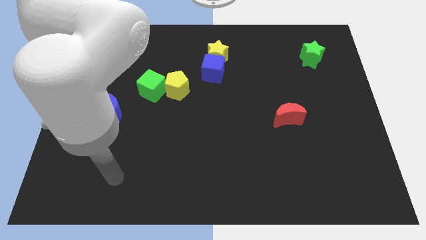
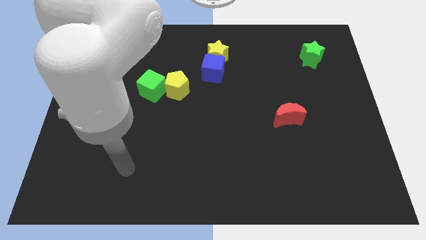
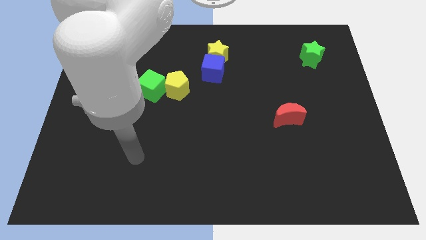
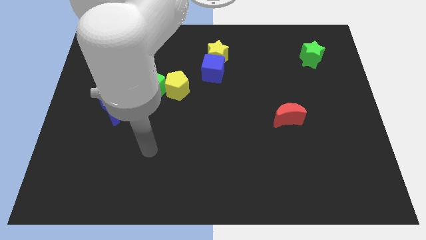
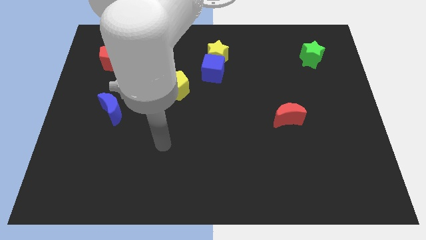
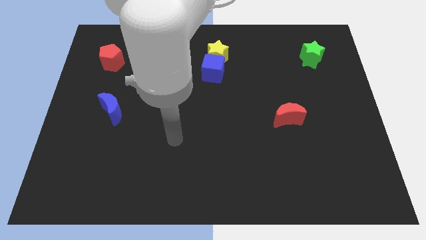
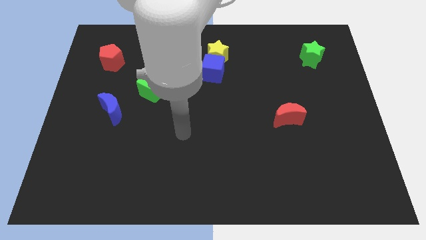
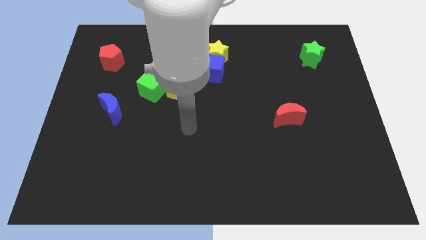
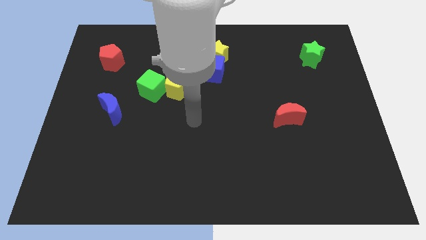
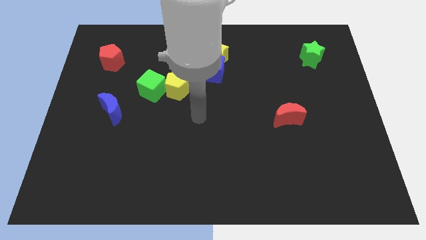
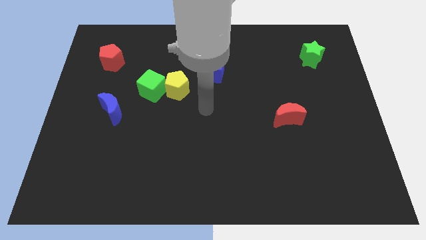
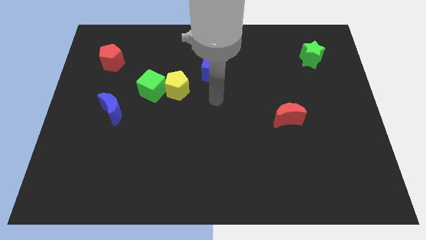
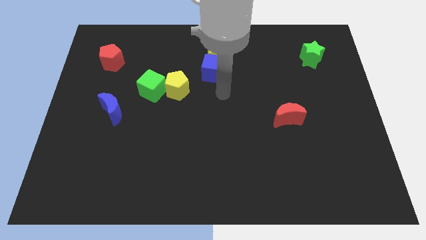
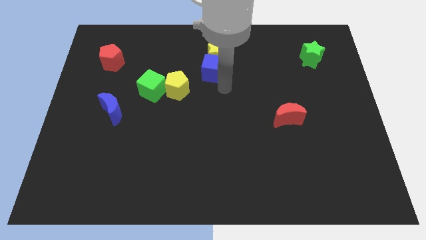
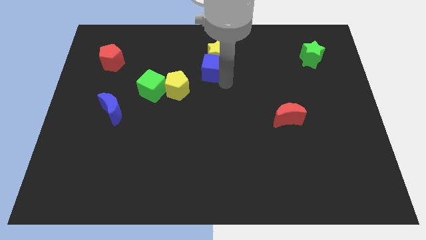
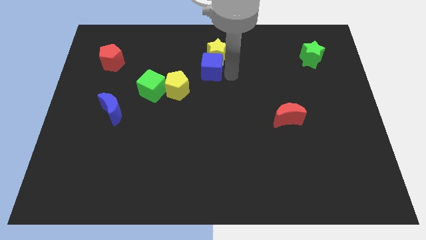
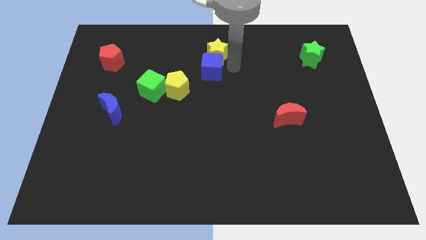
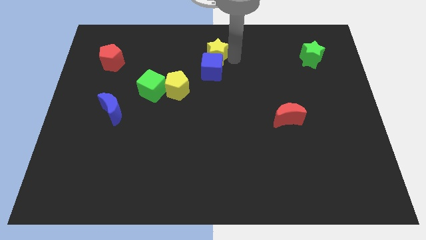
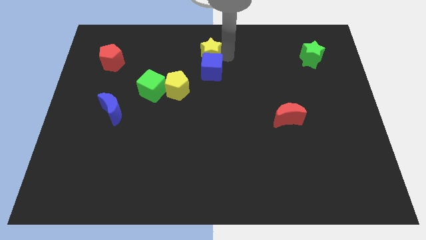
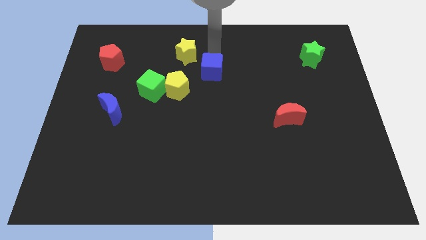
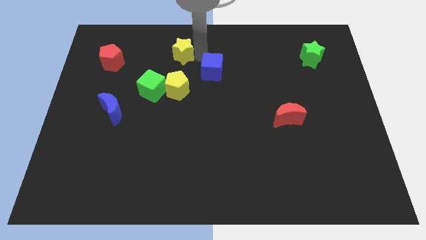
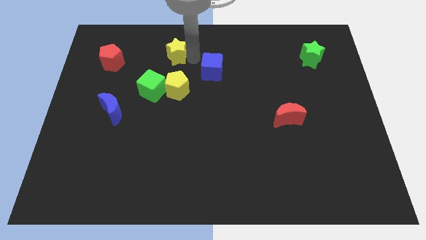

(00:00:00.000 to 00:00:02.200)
pull the blue cube apart from the yellow star

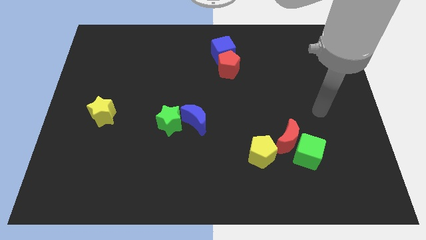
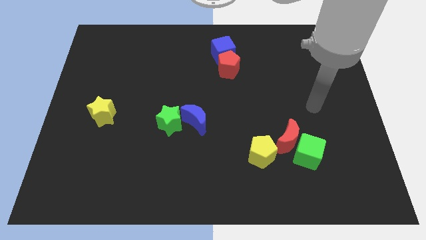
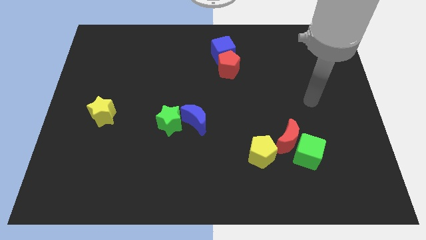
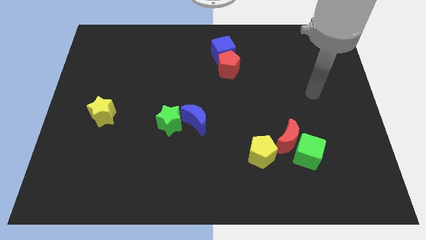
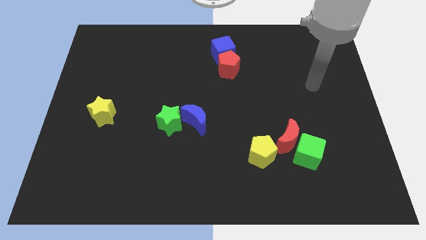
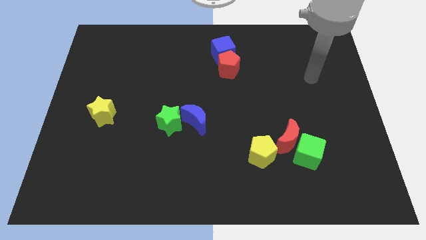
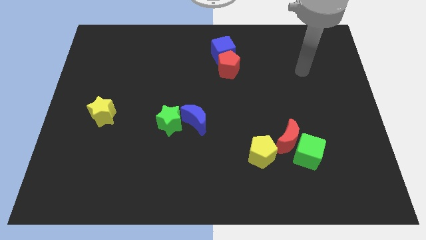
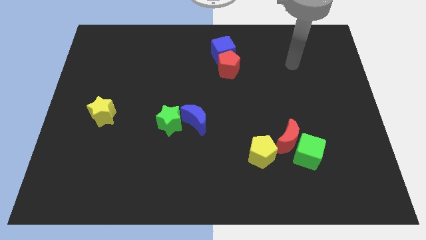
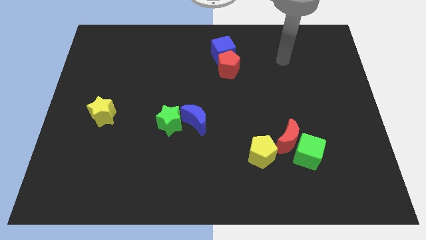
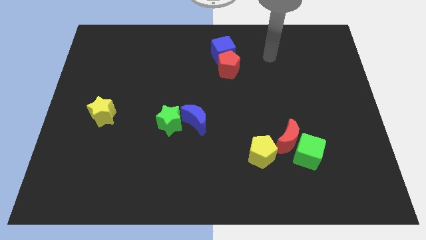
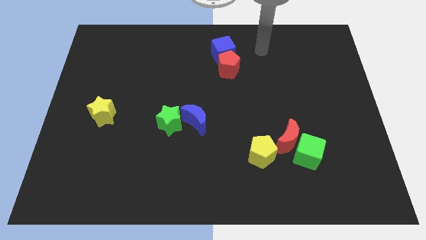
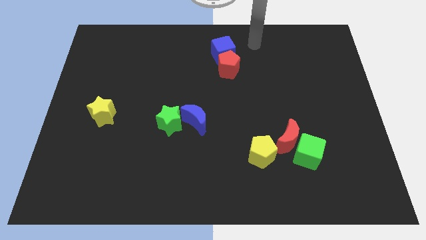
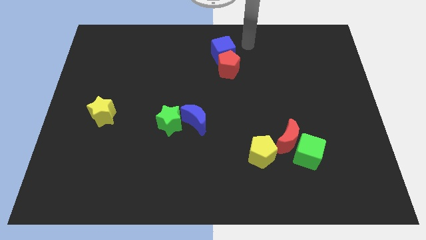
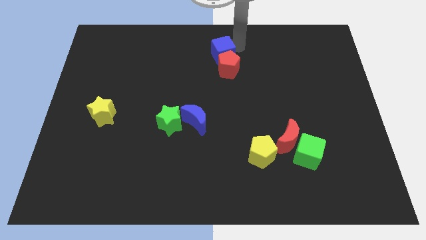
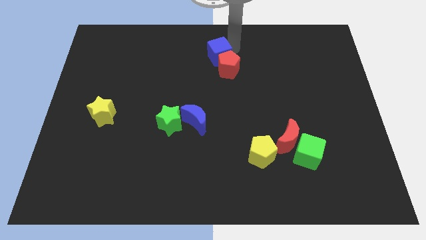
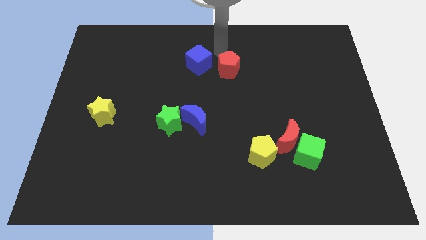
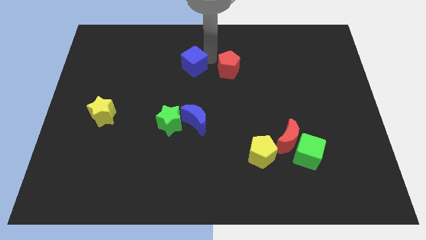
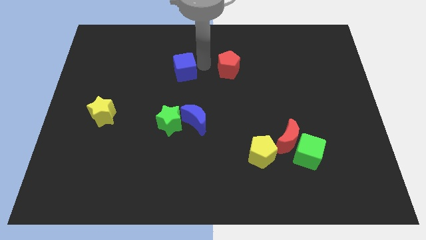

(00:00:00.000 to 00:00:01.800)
move the red pentagon away from the blue cube

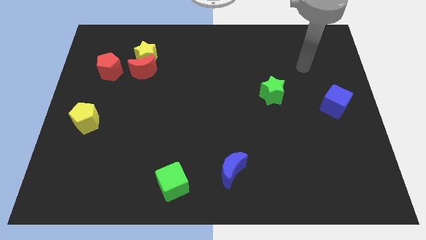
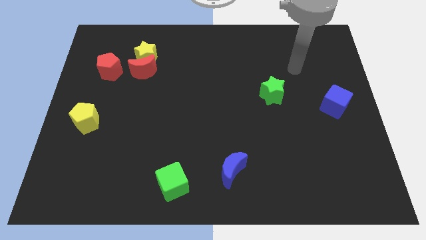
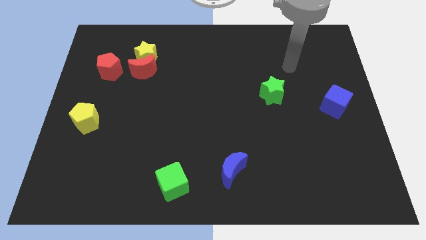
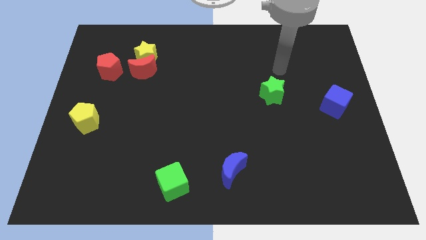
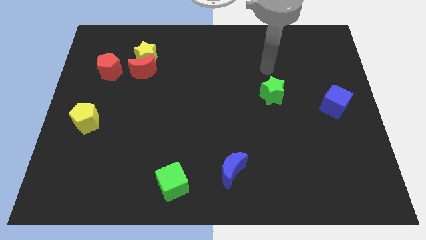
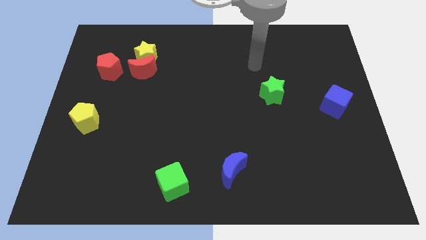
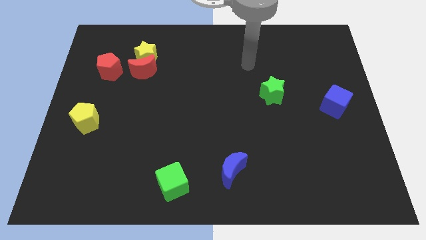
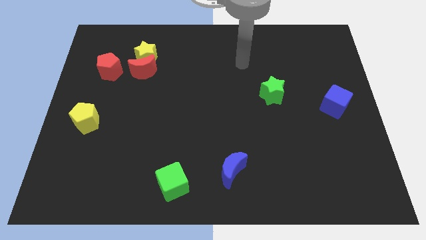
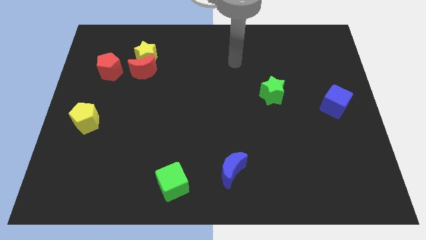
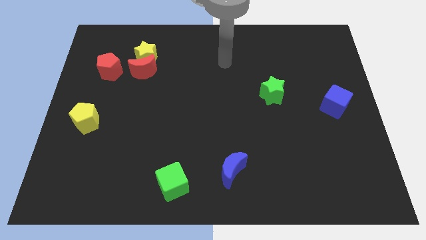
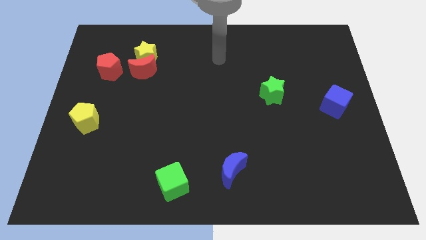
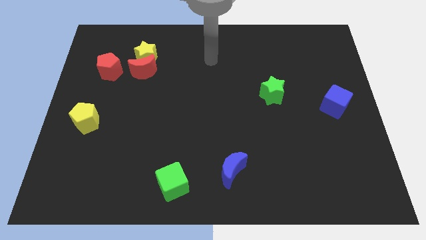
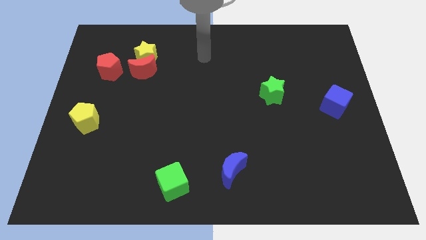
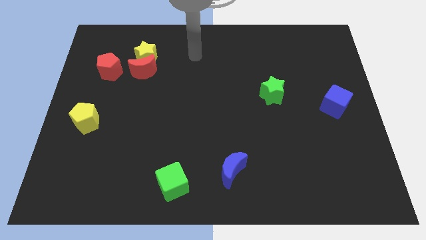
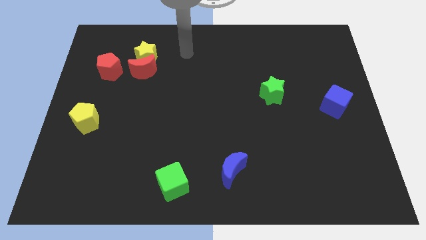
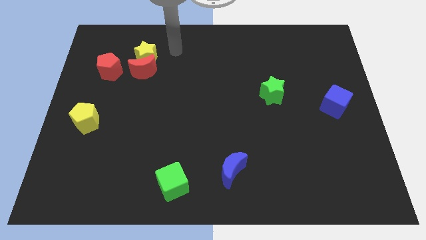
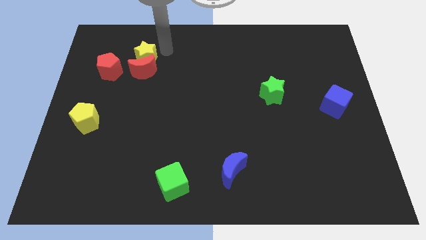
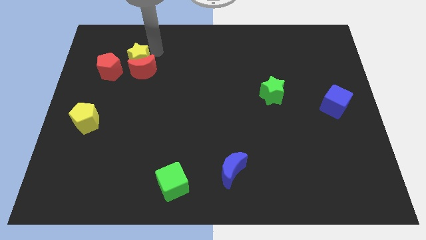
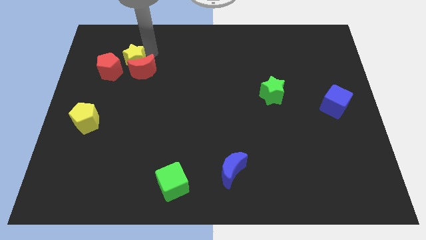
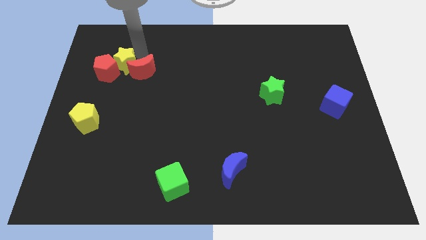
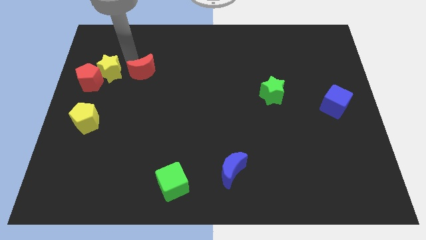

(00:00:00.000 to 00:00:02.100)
separate the red moon from the yellow star and red pentagon

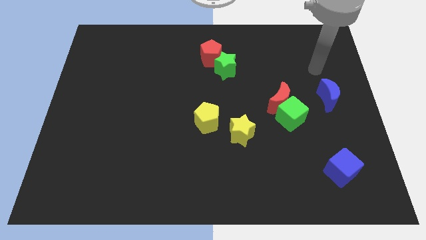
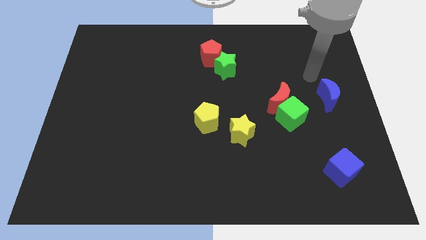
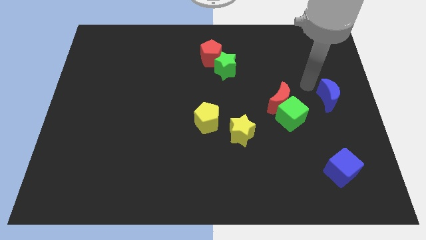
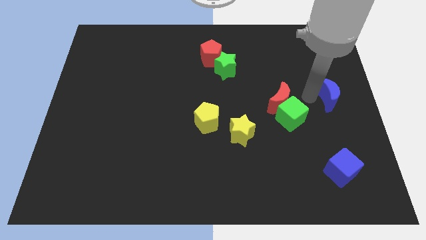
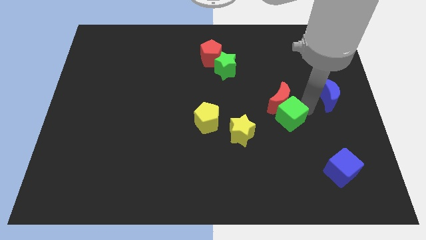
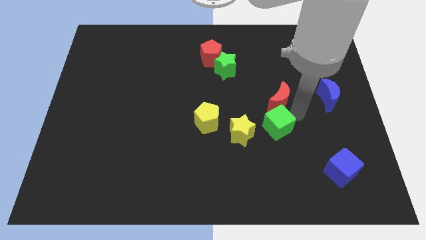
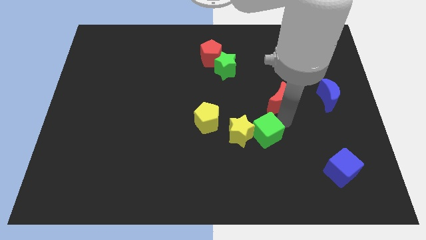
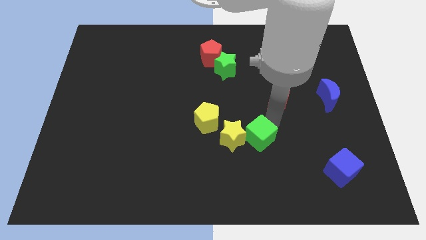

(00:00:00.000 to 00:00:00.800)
move the red moon away from the green cube

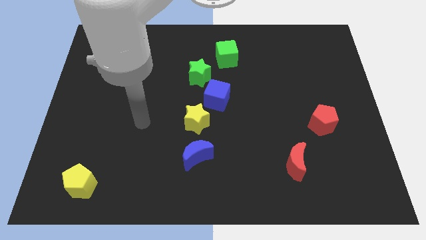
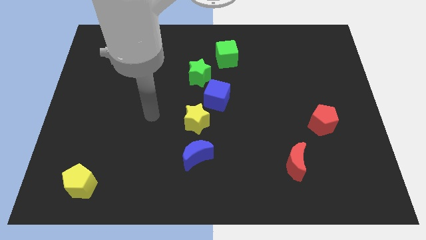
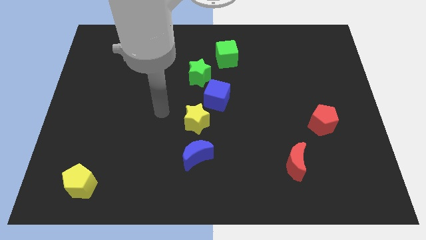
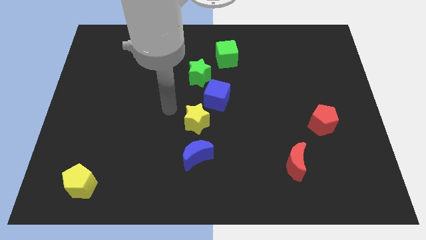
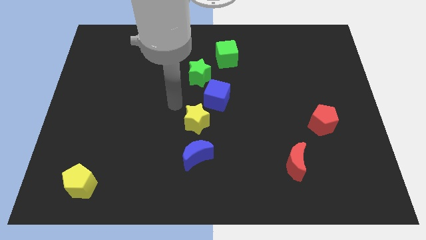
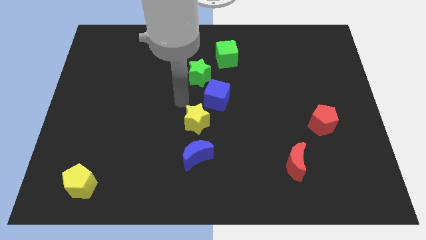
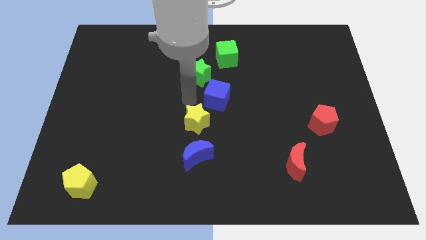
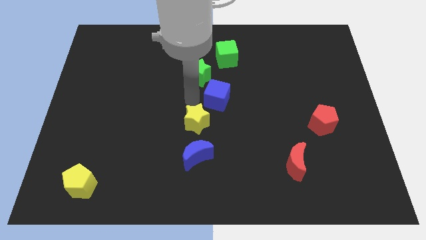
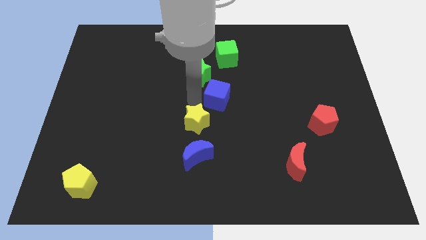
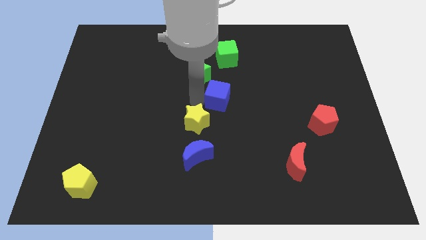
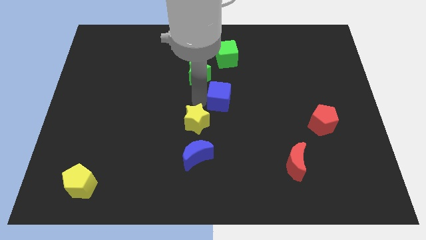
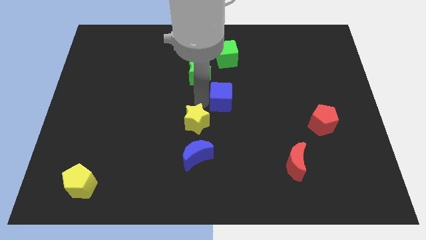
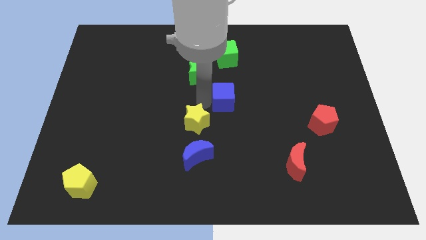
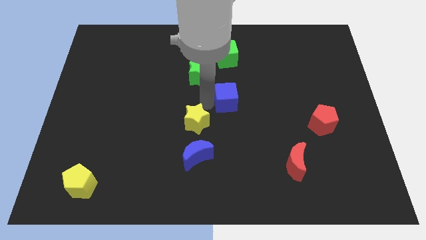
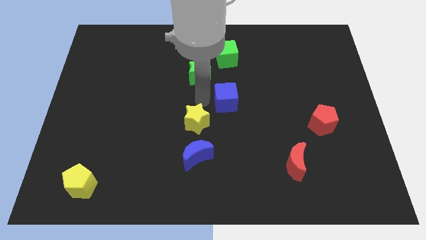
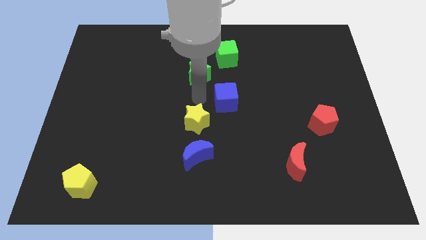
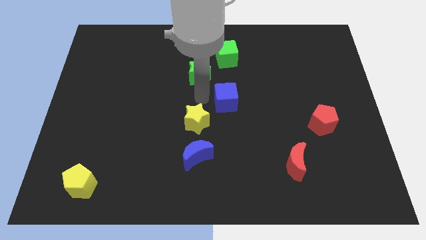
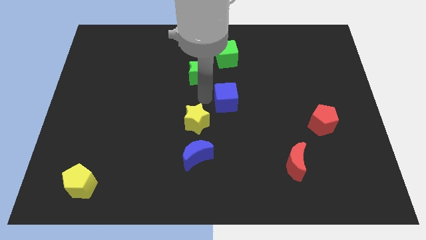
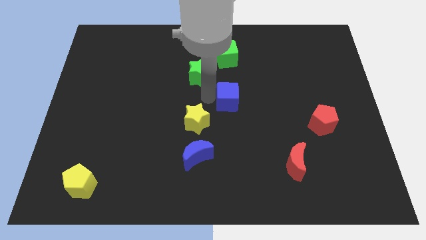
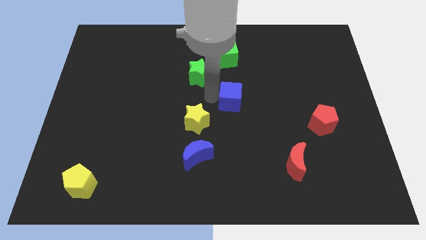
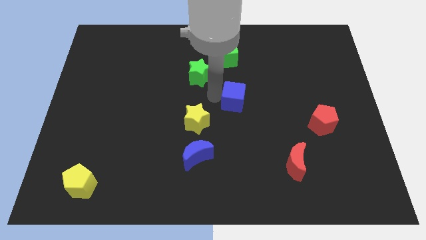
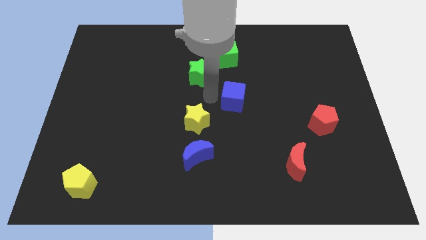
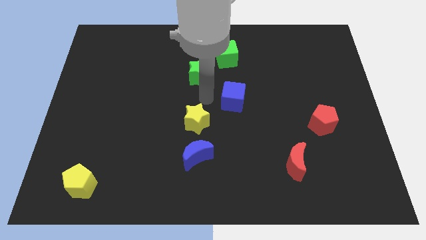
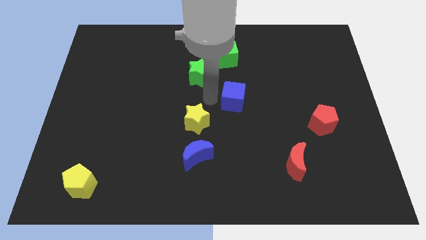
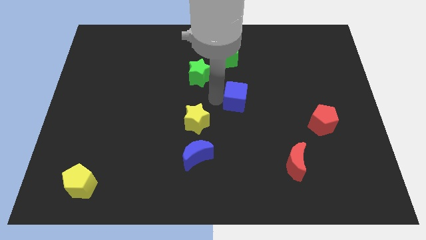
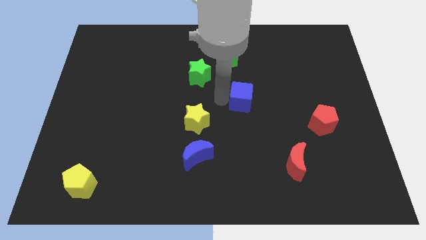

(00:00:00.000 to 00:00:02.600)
pull the blue cube apart from the yellow star and green star
